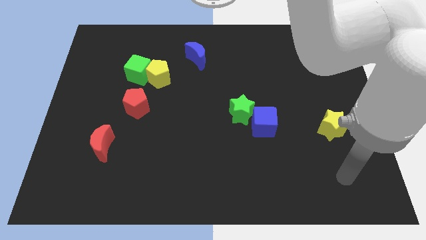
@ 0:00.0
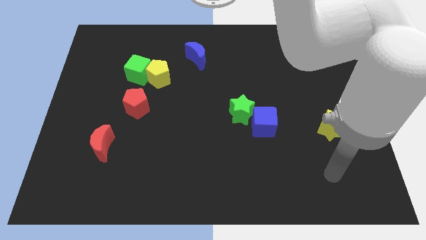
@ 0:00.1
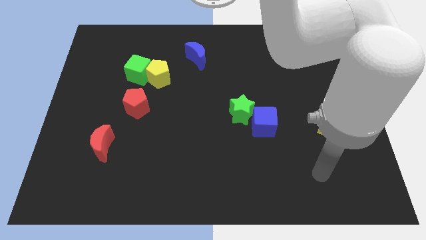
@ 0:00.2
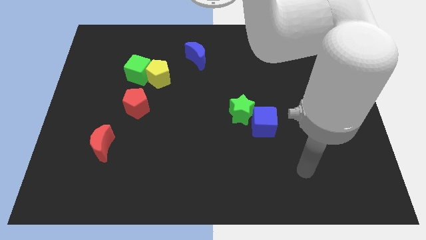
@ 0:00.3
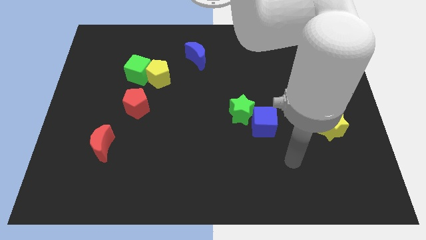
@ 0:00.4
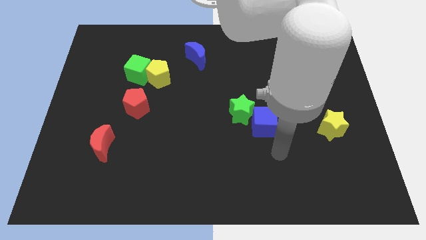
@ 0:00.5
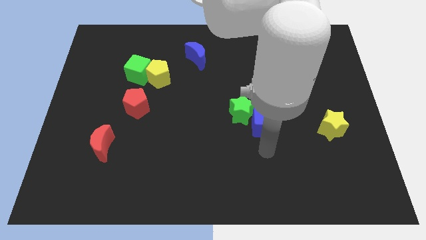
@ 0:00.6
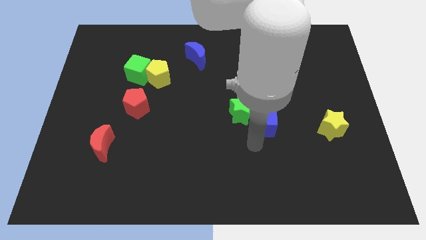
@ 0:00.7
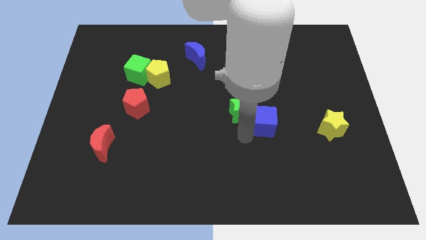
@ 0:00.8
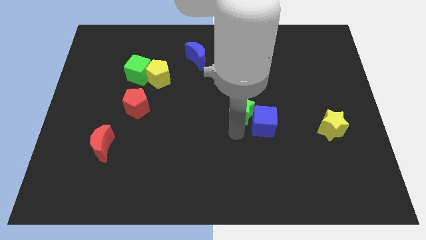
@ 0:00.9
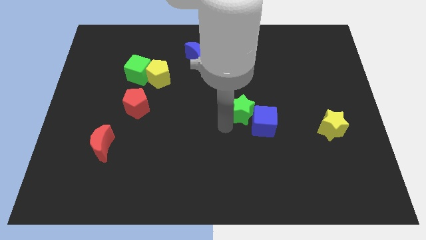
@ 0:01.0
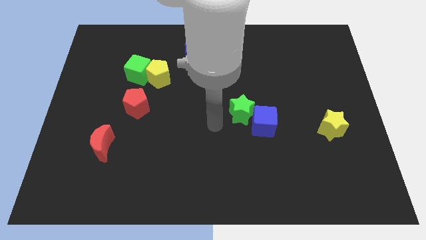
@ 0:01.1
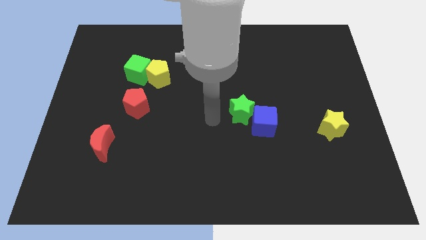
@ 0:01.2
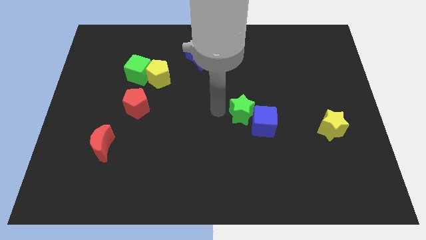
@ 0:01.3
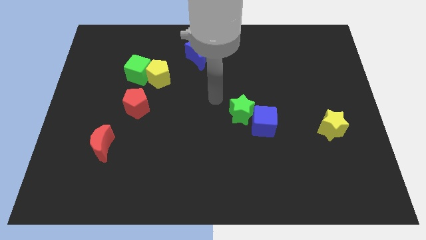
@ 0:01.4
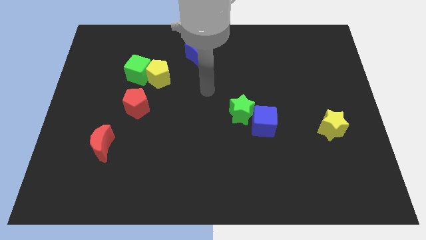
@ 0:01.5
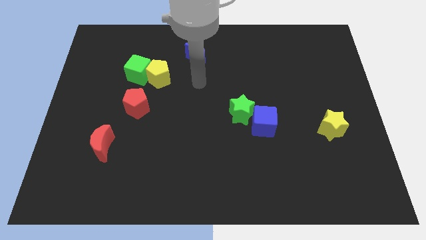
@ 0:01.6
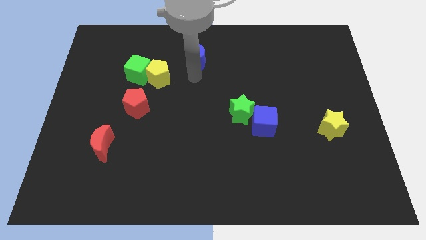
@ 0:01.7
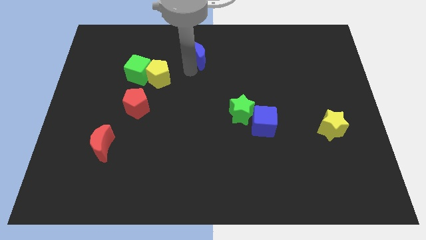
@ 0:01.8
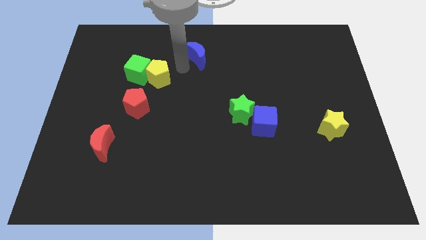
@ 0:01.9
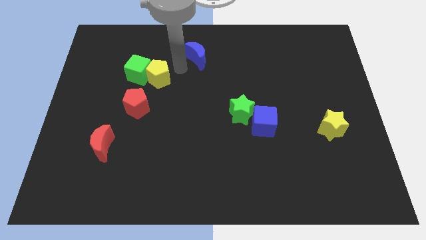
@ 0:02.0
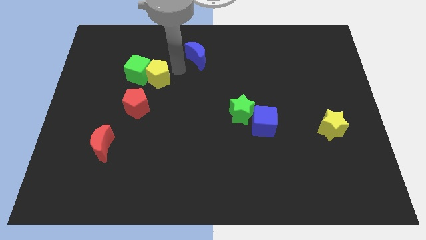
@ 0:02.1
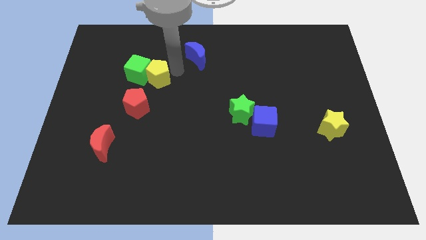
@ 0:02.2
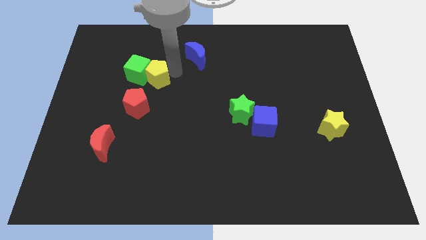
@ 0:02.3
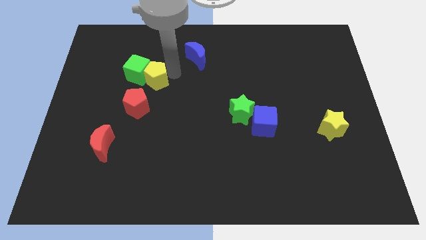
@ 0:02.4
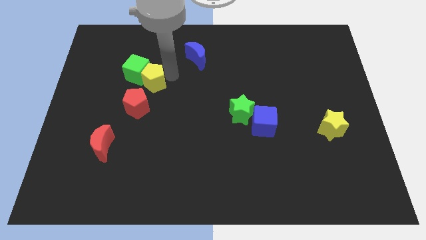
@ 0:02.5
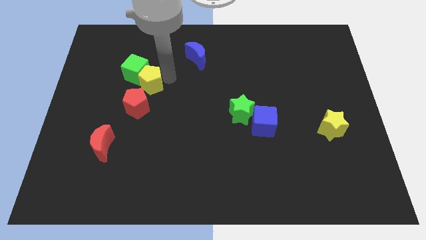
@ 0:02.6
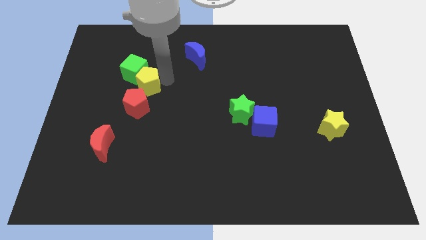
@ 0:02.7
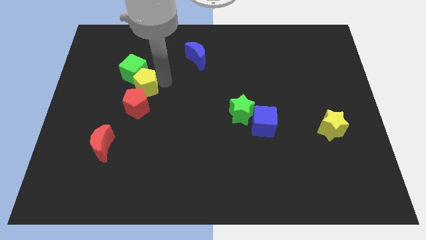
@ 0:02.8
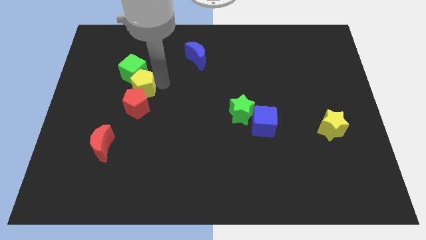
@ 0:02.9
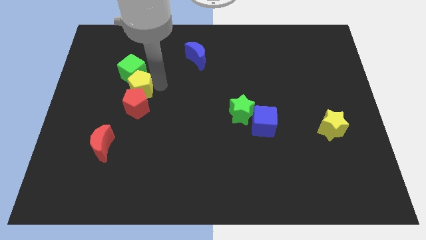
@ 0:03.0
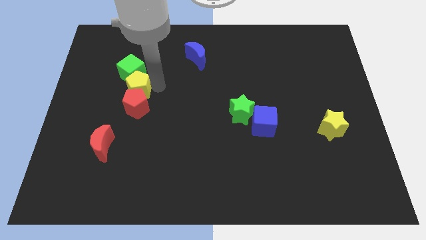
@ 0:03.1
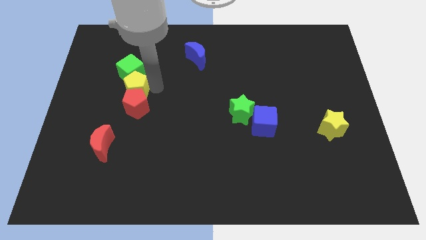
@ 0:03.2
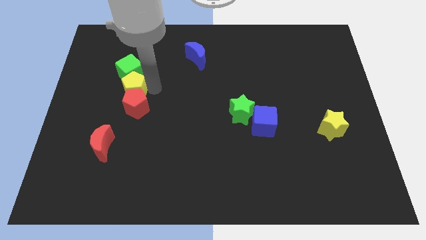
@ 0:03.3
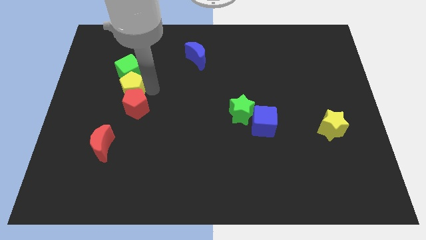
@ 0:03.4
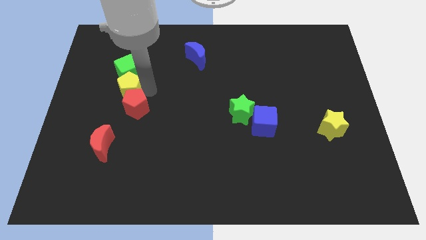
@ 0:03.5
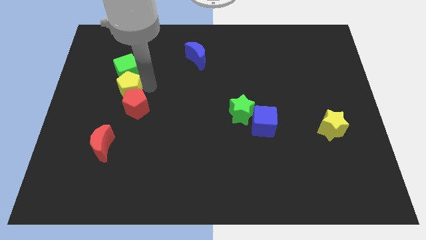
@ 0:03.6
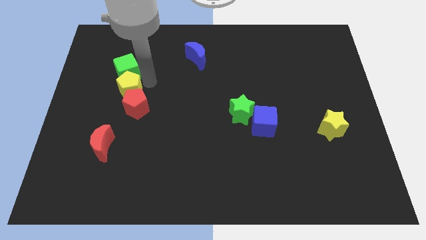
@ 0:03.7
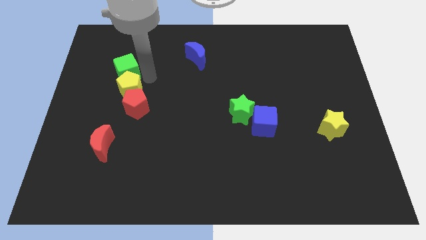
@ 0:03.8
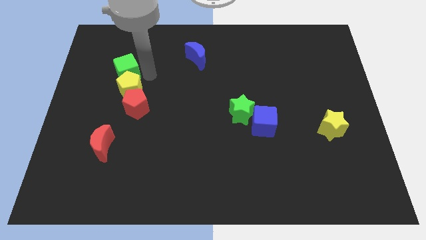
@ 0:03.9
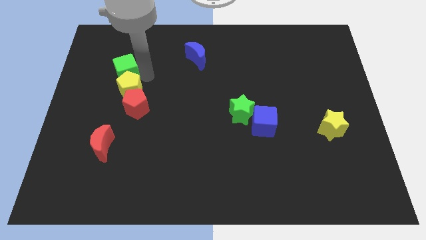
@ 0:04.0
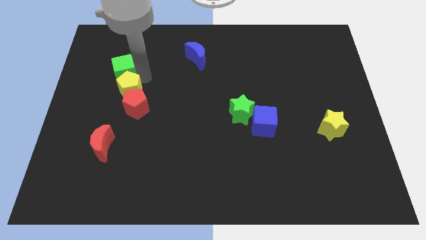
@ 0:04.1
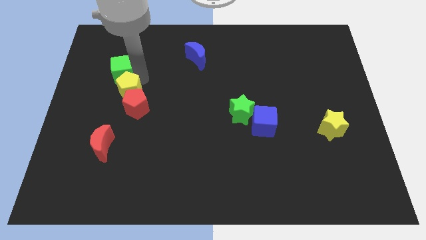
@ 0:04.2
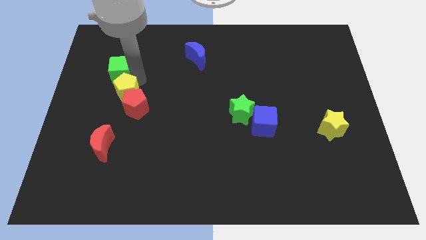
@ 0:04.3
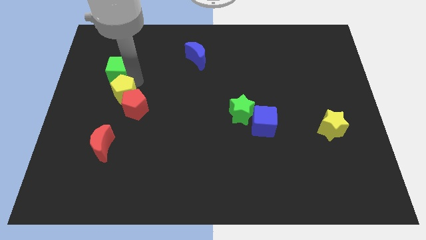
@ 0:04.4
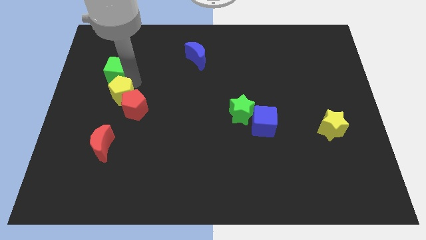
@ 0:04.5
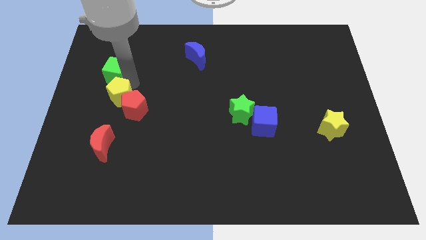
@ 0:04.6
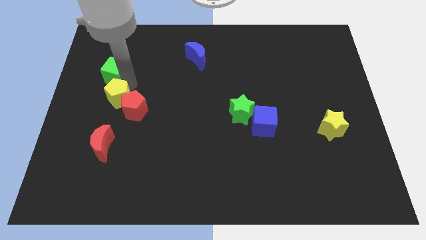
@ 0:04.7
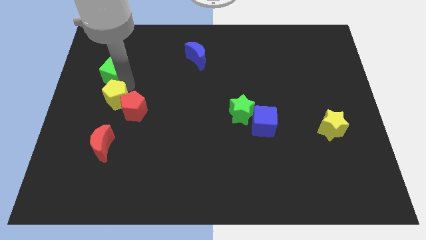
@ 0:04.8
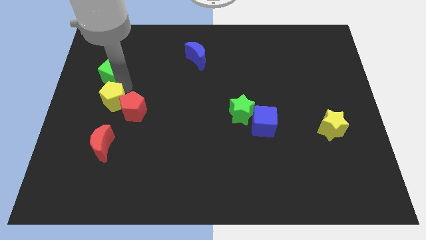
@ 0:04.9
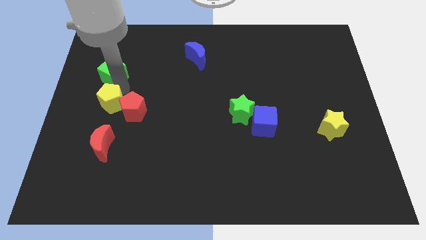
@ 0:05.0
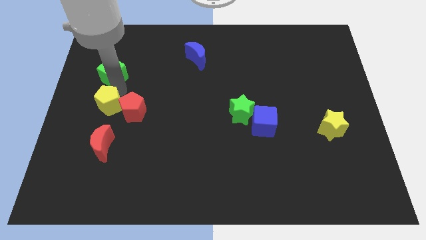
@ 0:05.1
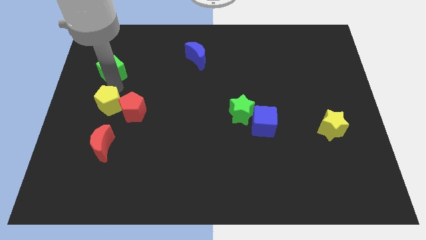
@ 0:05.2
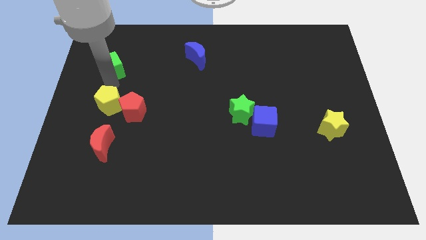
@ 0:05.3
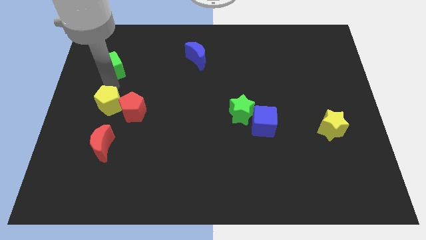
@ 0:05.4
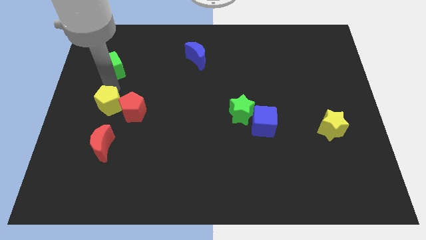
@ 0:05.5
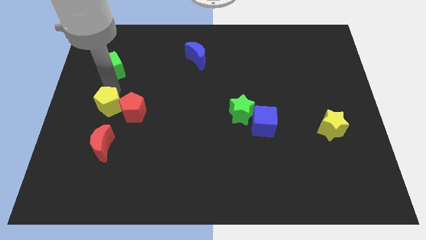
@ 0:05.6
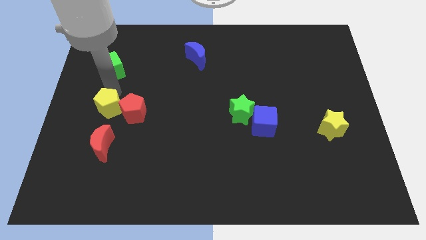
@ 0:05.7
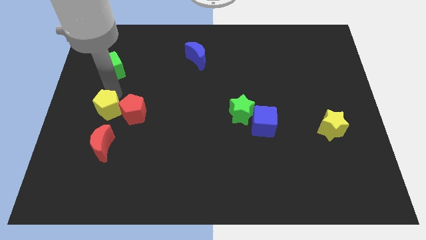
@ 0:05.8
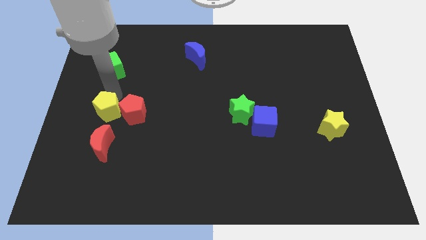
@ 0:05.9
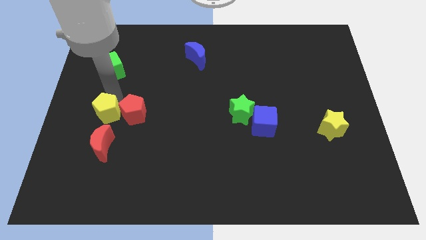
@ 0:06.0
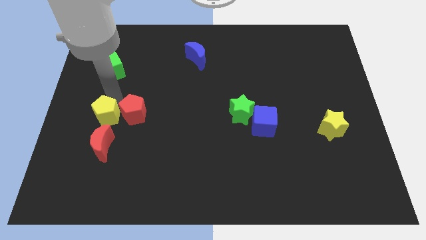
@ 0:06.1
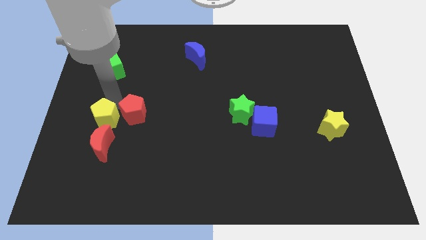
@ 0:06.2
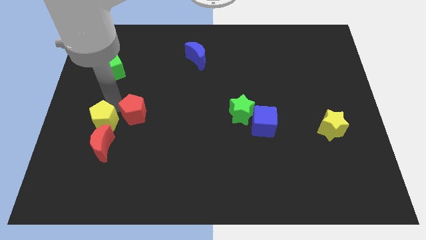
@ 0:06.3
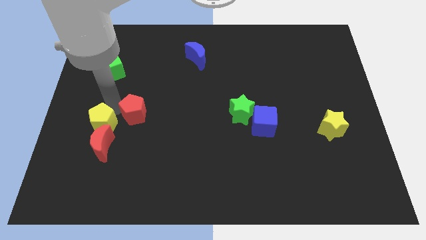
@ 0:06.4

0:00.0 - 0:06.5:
put the yellow pentagon towards the red moon
